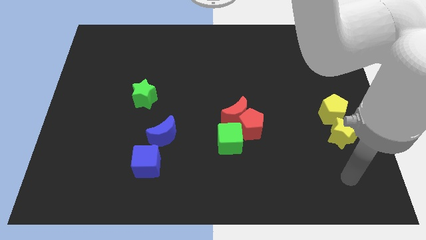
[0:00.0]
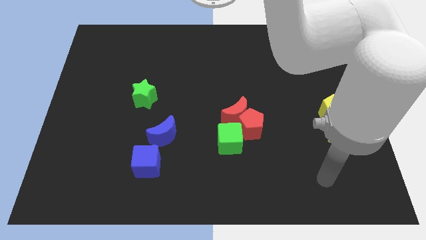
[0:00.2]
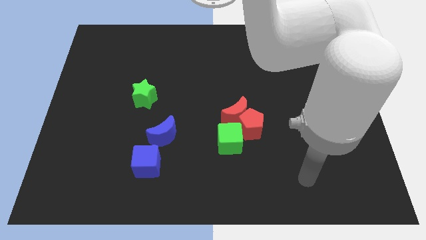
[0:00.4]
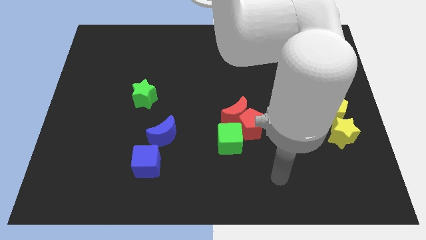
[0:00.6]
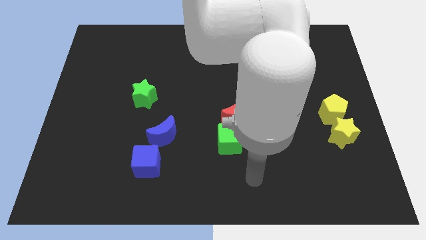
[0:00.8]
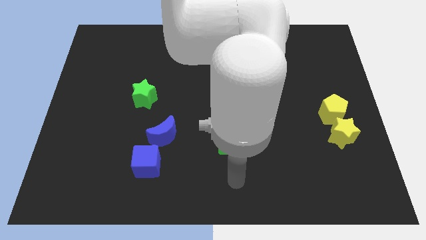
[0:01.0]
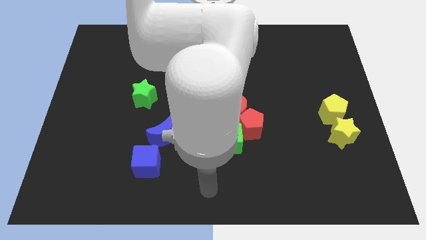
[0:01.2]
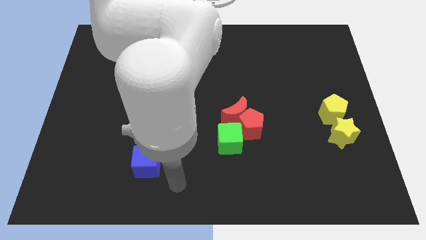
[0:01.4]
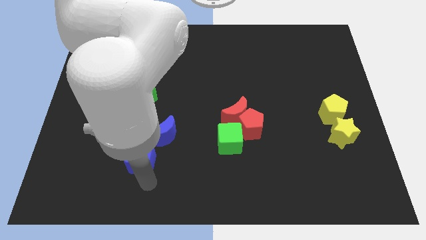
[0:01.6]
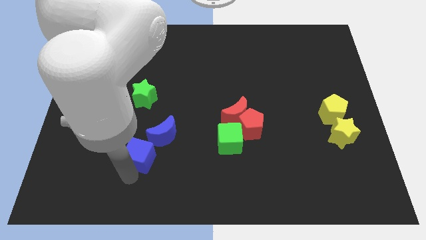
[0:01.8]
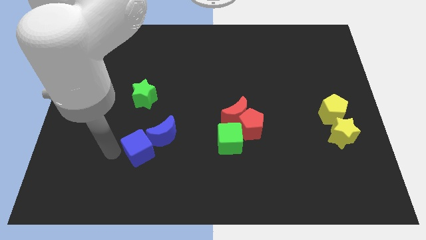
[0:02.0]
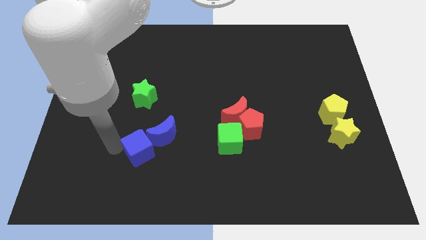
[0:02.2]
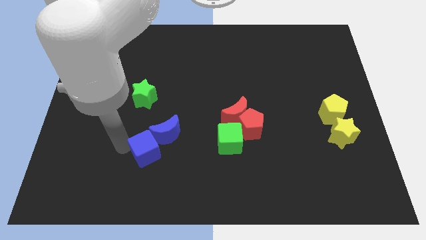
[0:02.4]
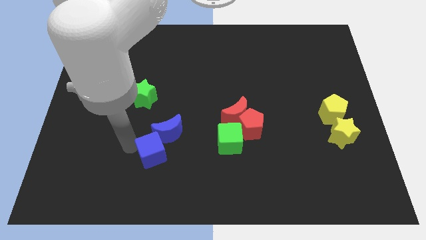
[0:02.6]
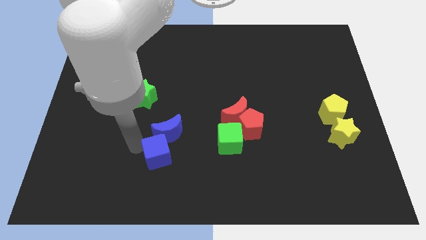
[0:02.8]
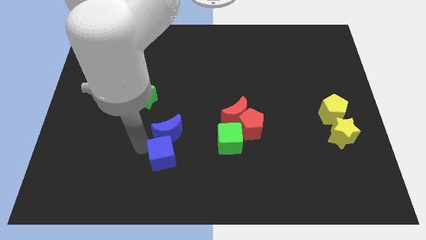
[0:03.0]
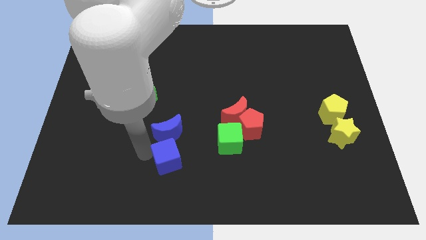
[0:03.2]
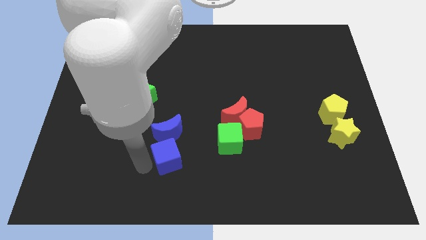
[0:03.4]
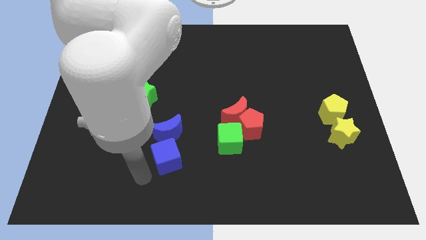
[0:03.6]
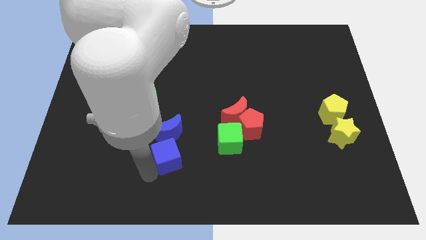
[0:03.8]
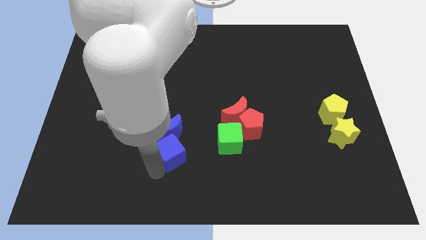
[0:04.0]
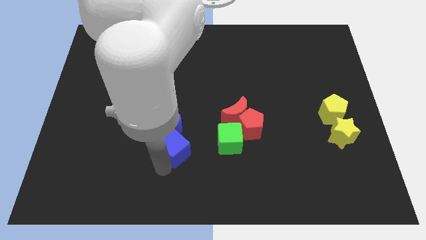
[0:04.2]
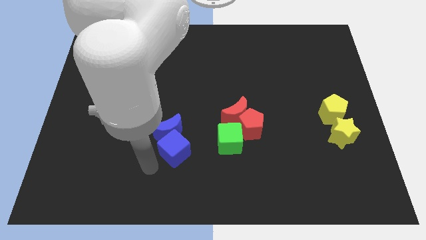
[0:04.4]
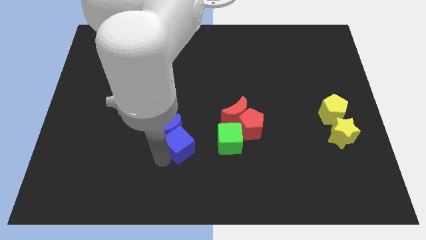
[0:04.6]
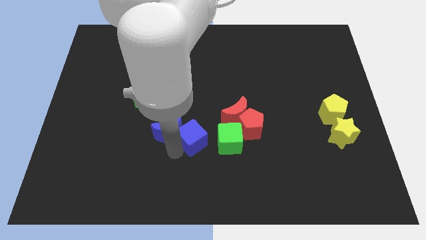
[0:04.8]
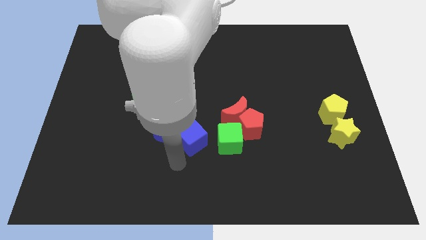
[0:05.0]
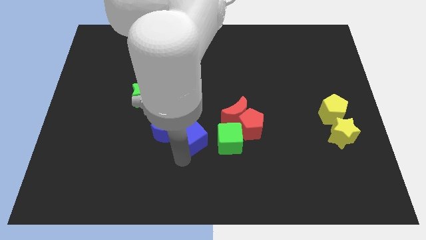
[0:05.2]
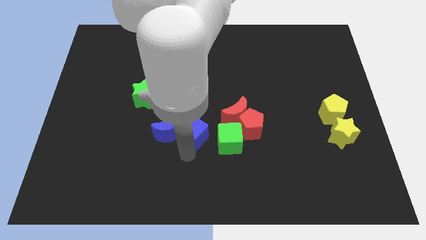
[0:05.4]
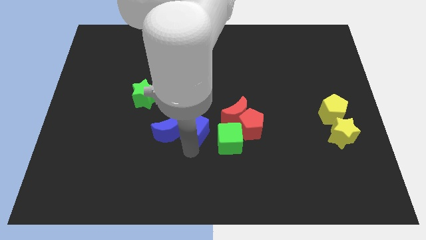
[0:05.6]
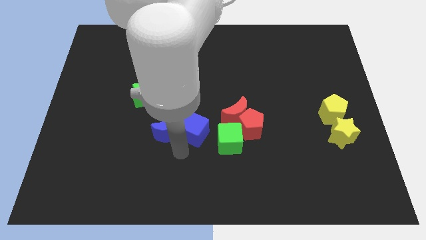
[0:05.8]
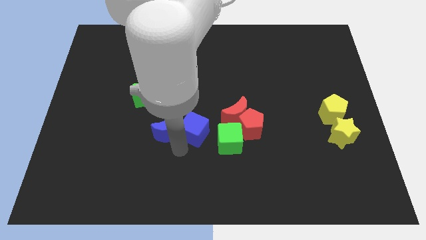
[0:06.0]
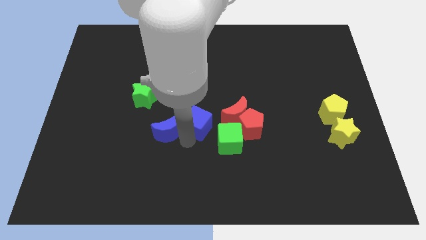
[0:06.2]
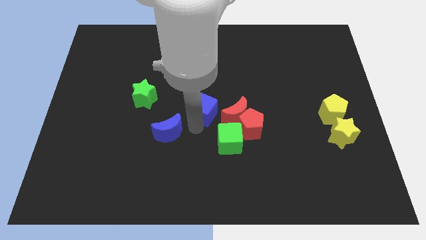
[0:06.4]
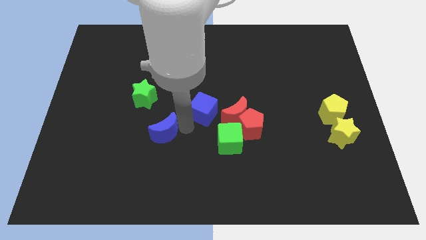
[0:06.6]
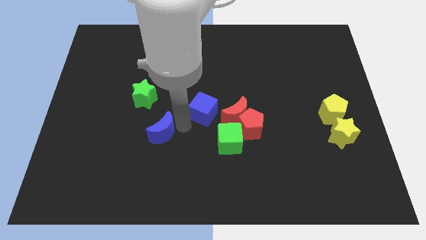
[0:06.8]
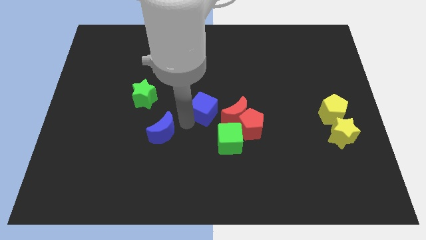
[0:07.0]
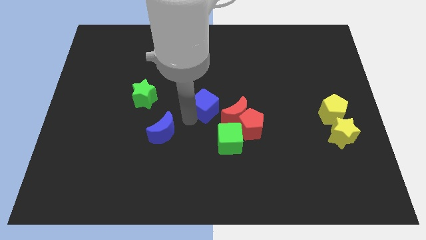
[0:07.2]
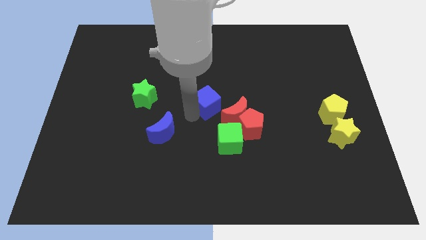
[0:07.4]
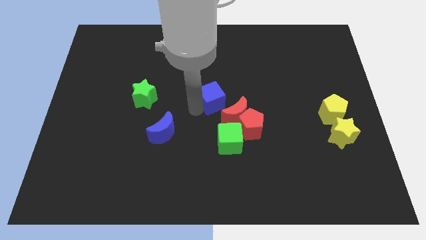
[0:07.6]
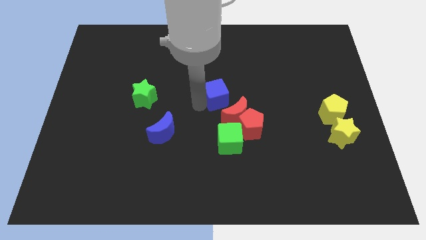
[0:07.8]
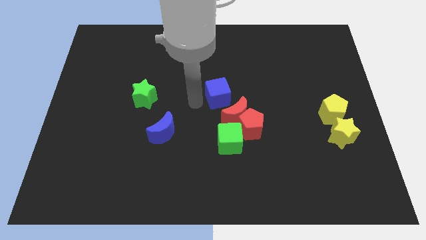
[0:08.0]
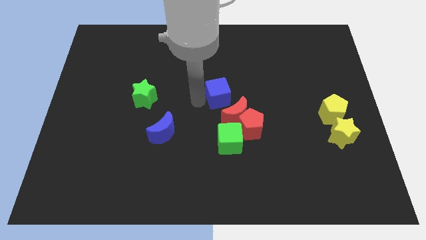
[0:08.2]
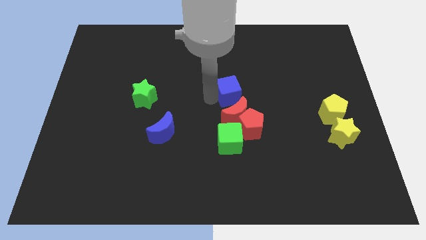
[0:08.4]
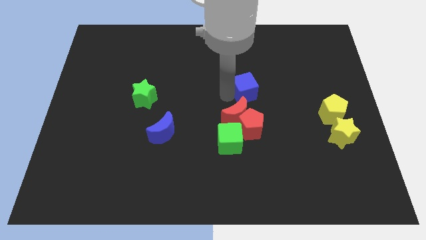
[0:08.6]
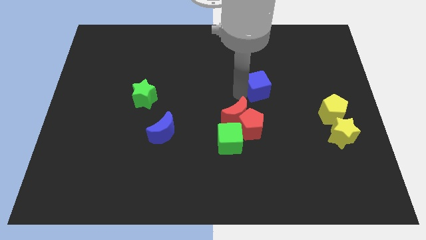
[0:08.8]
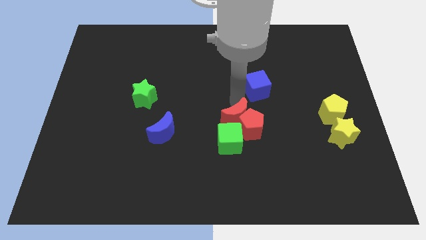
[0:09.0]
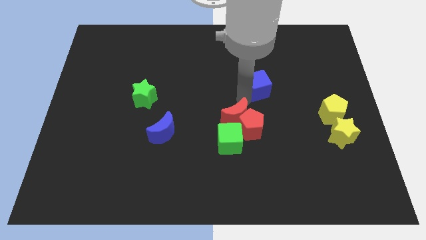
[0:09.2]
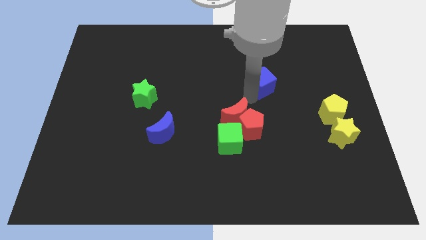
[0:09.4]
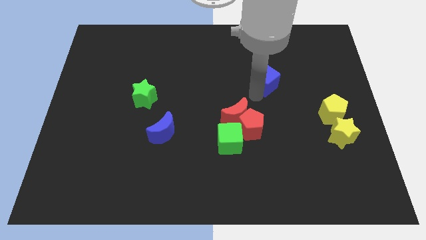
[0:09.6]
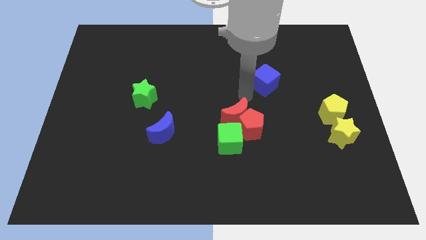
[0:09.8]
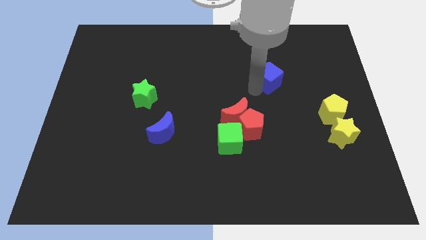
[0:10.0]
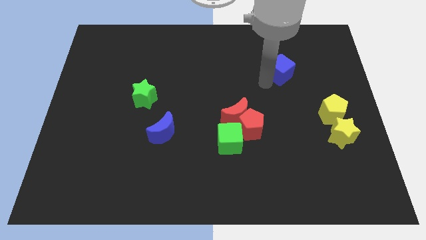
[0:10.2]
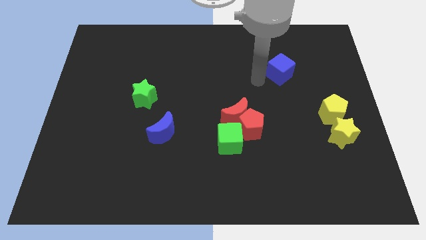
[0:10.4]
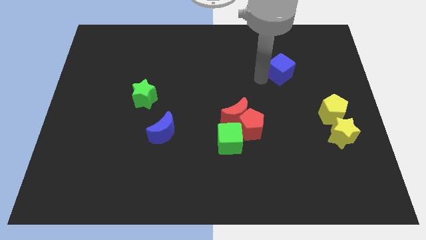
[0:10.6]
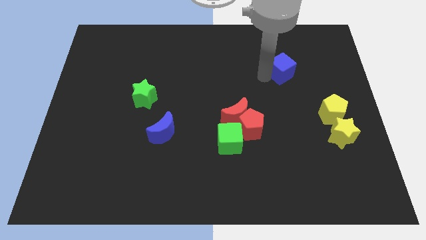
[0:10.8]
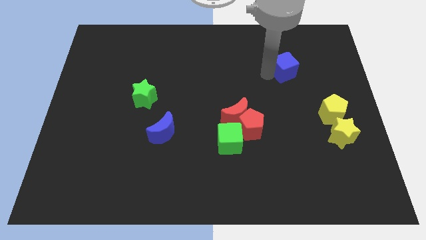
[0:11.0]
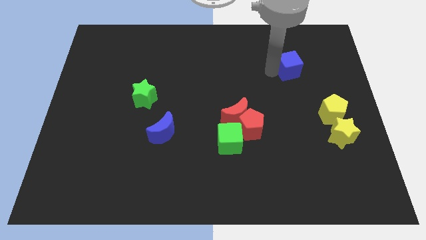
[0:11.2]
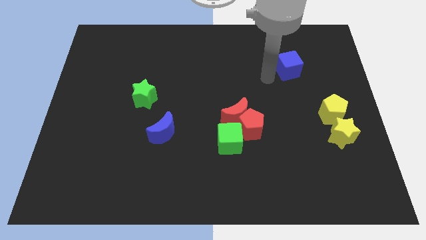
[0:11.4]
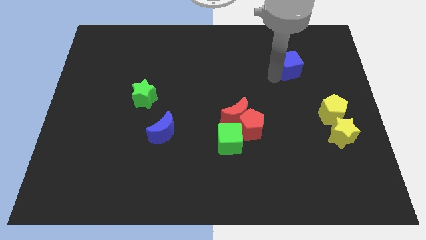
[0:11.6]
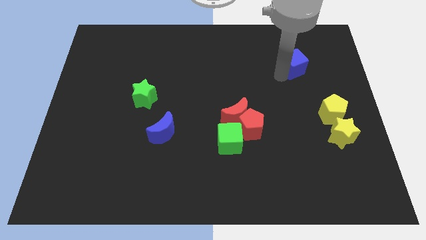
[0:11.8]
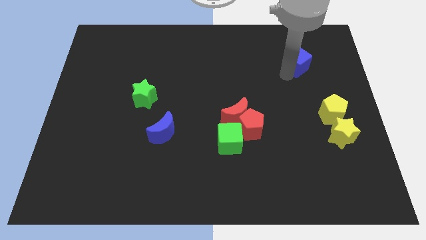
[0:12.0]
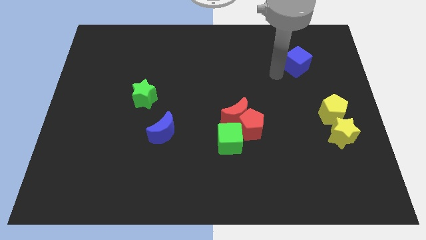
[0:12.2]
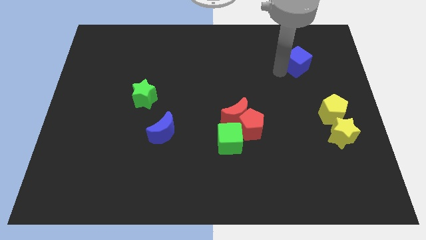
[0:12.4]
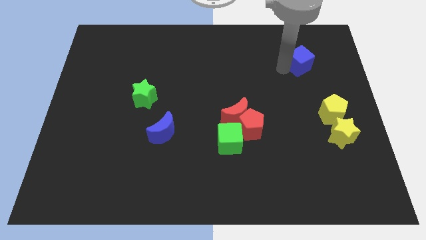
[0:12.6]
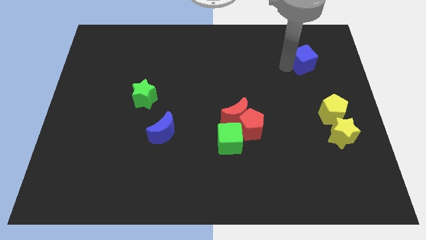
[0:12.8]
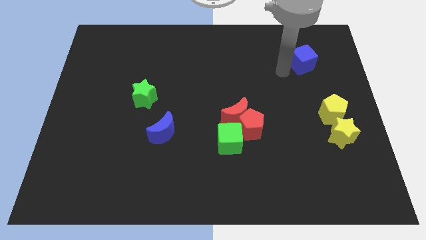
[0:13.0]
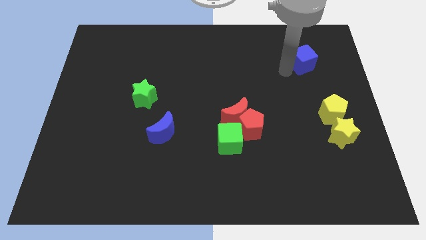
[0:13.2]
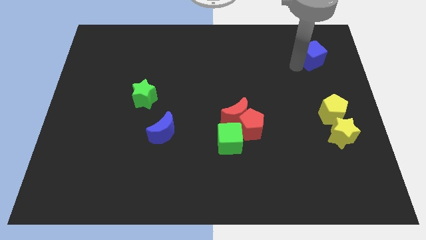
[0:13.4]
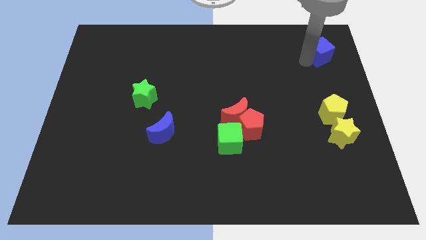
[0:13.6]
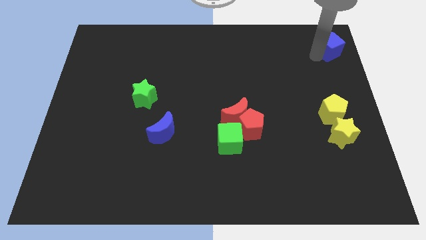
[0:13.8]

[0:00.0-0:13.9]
push the blue cube to the upper right corner

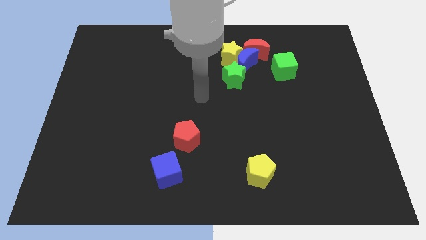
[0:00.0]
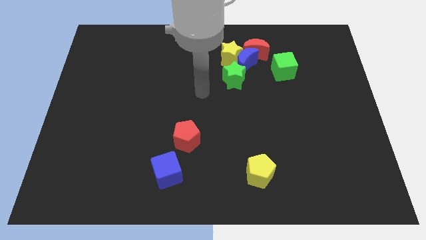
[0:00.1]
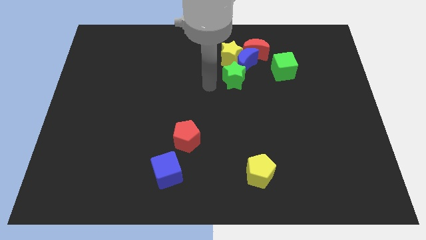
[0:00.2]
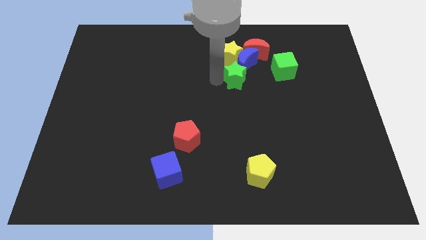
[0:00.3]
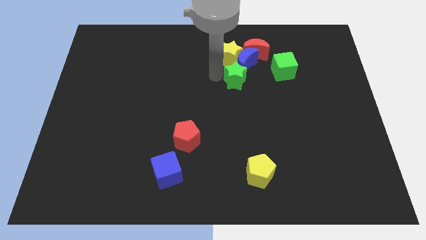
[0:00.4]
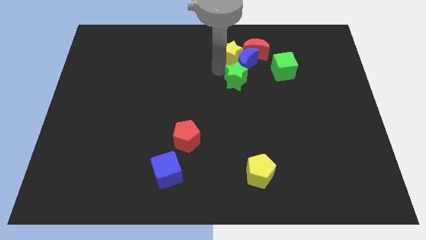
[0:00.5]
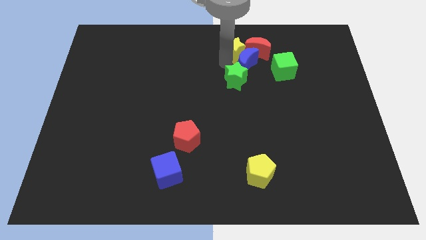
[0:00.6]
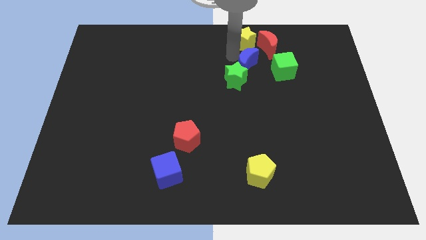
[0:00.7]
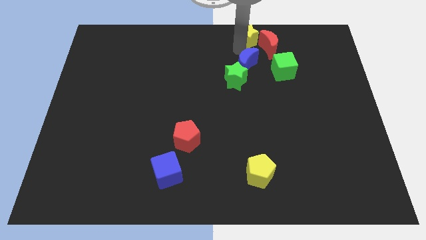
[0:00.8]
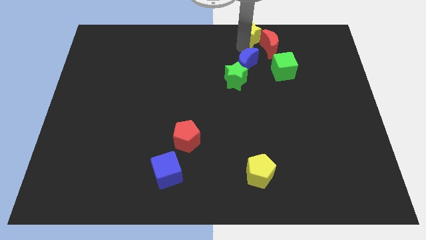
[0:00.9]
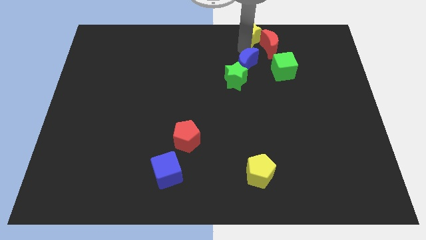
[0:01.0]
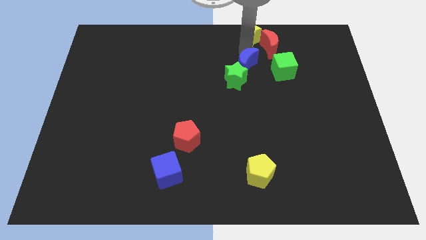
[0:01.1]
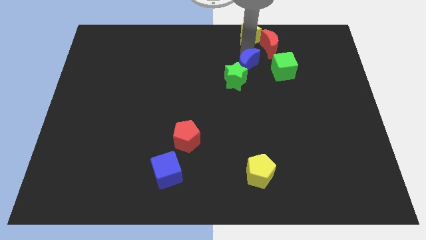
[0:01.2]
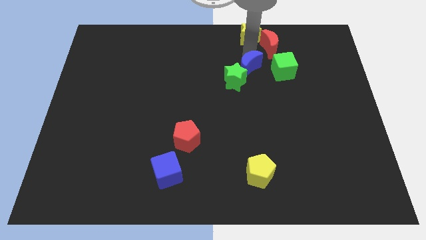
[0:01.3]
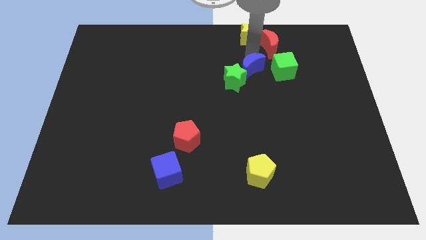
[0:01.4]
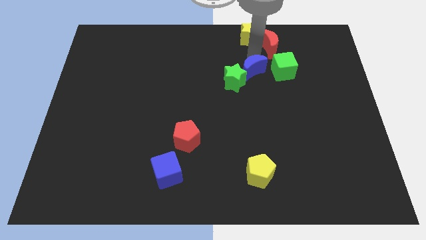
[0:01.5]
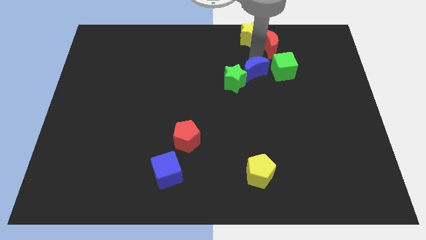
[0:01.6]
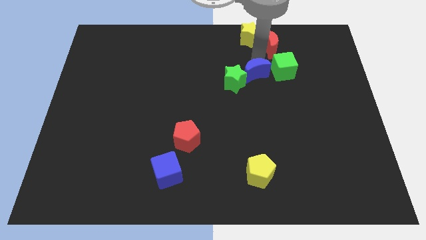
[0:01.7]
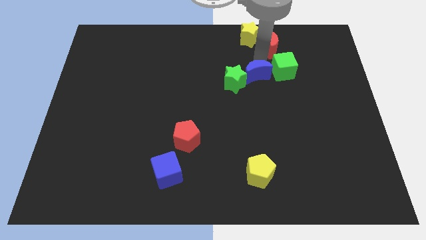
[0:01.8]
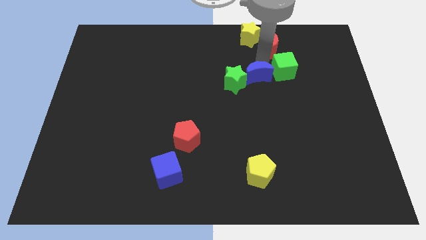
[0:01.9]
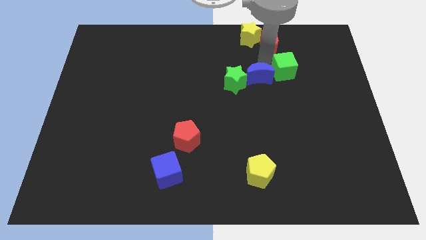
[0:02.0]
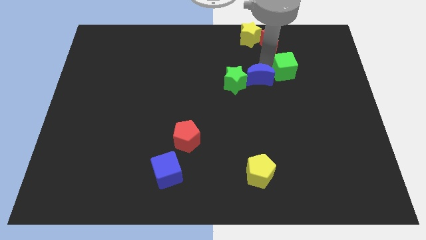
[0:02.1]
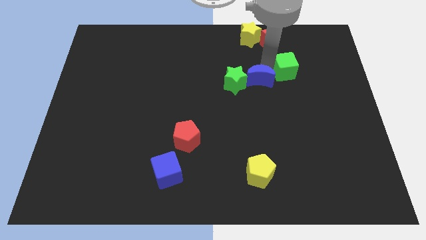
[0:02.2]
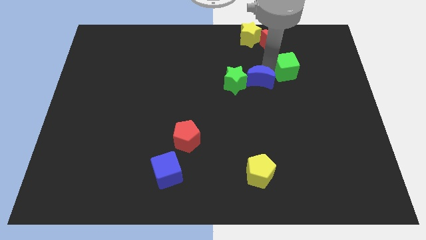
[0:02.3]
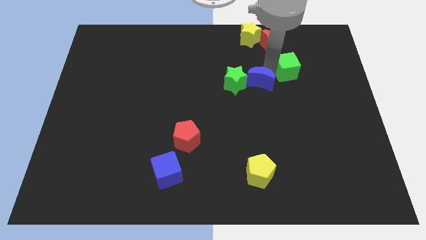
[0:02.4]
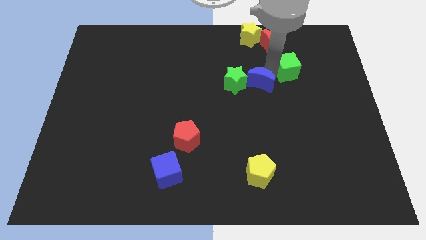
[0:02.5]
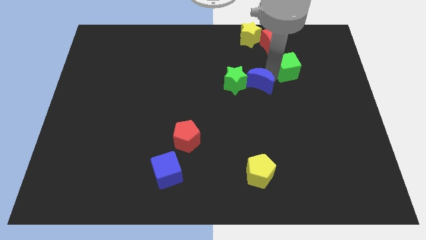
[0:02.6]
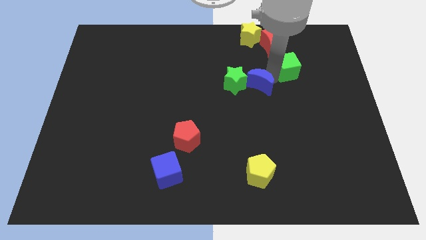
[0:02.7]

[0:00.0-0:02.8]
put the blue moon to the middle of the board
